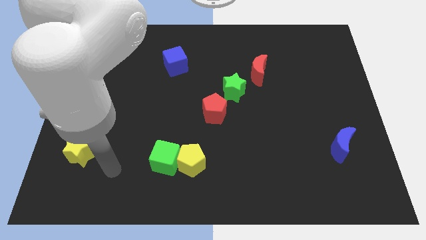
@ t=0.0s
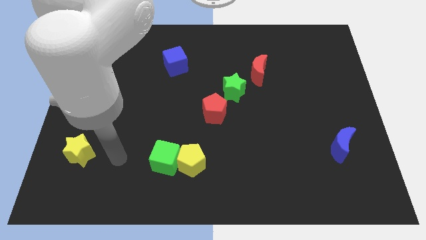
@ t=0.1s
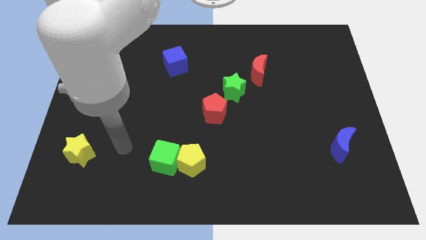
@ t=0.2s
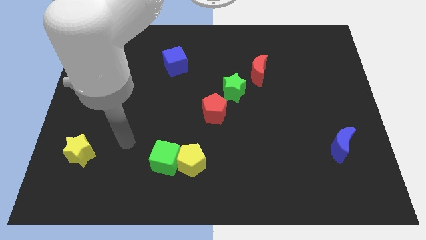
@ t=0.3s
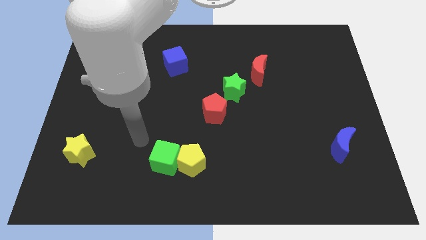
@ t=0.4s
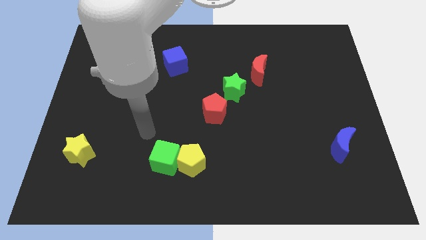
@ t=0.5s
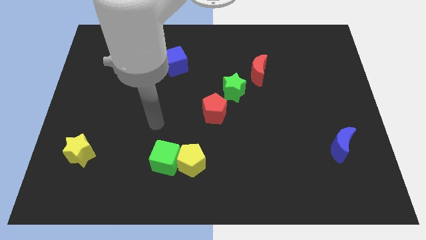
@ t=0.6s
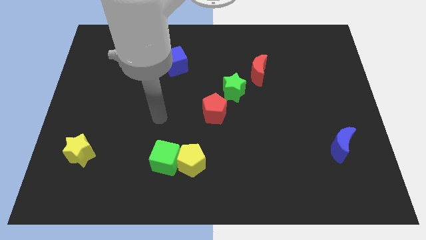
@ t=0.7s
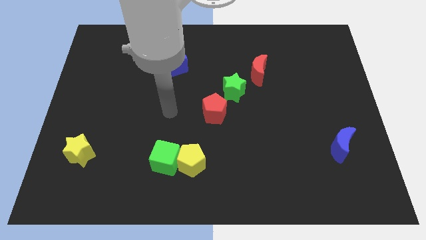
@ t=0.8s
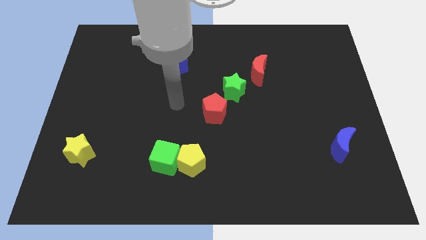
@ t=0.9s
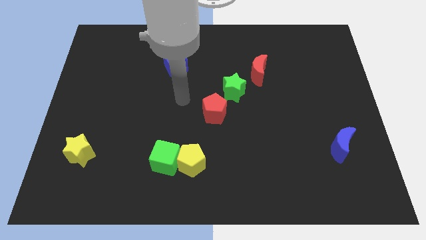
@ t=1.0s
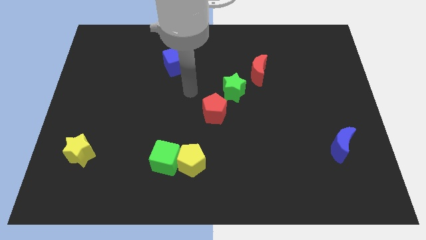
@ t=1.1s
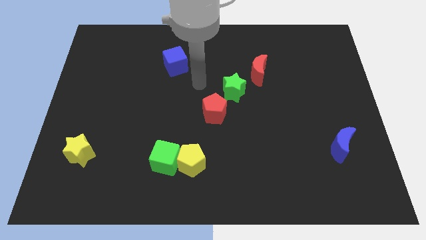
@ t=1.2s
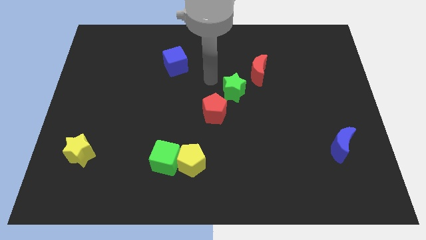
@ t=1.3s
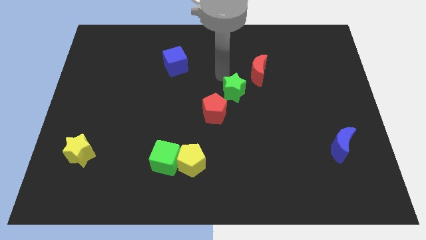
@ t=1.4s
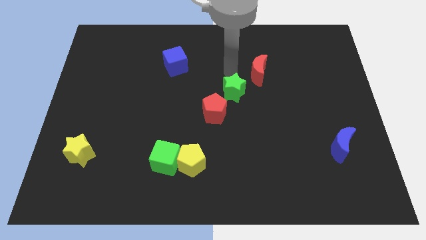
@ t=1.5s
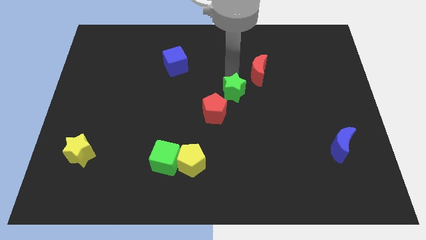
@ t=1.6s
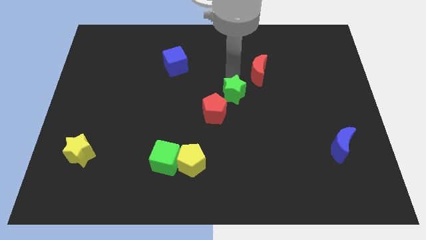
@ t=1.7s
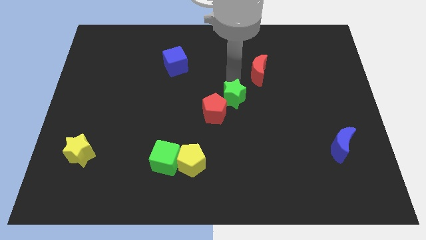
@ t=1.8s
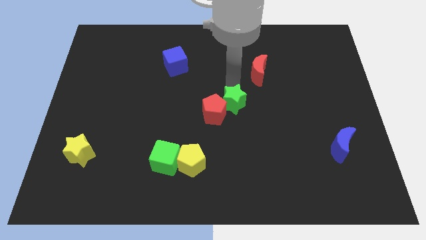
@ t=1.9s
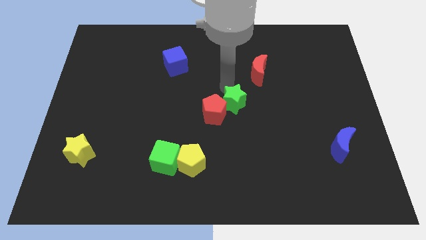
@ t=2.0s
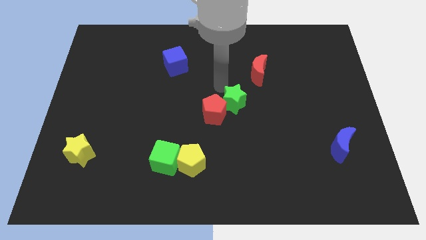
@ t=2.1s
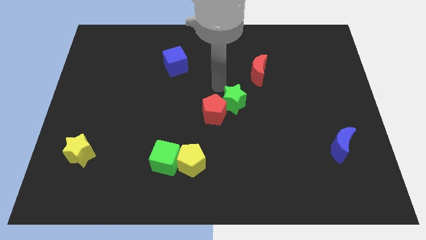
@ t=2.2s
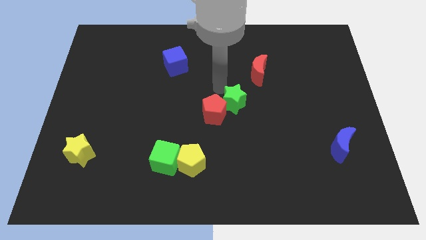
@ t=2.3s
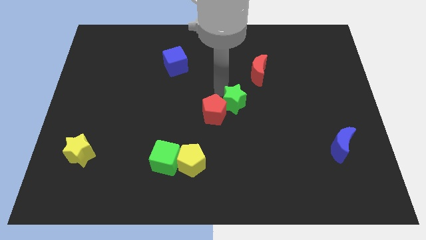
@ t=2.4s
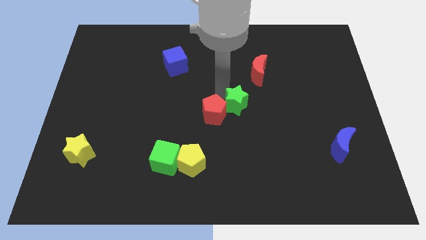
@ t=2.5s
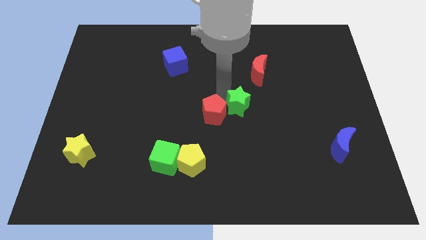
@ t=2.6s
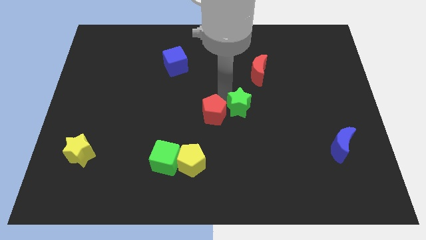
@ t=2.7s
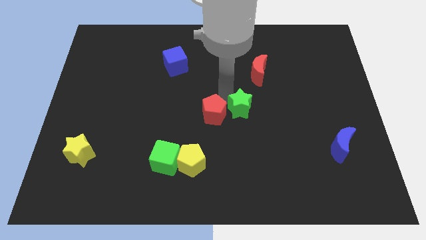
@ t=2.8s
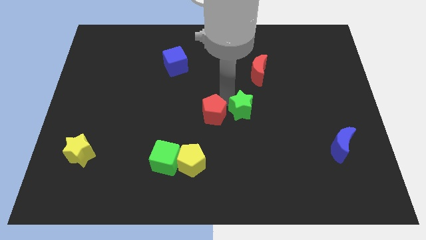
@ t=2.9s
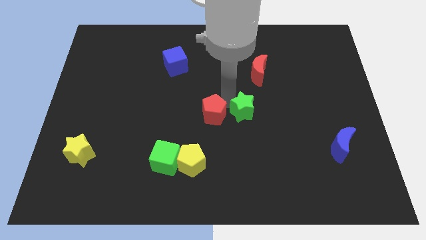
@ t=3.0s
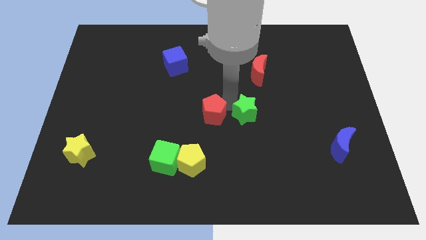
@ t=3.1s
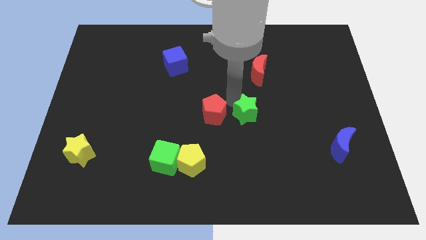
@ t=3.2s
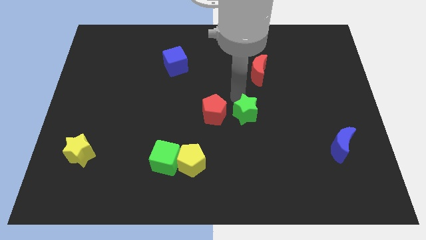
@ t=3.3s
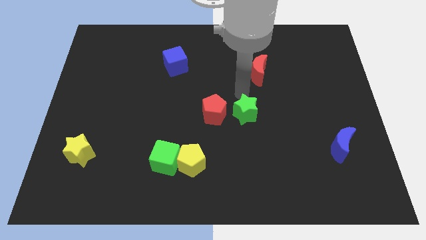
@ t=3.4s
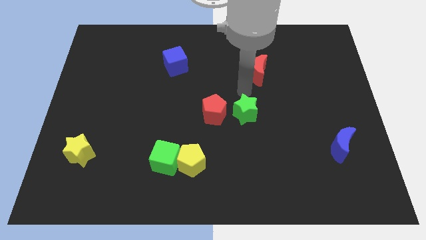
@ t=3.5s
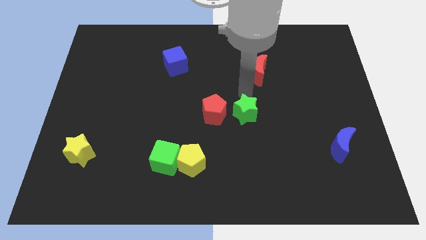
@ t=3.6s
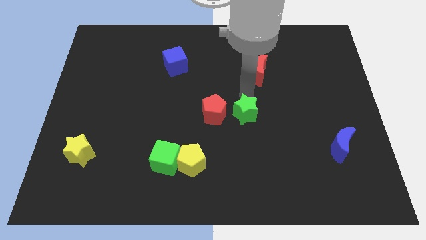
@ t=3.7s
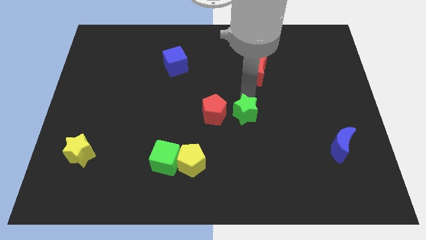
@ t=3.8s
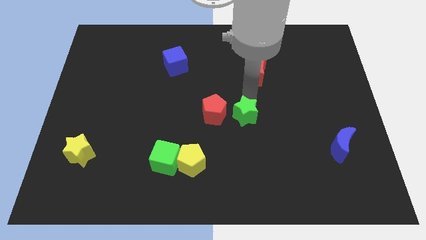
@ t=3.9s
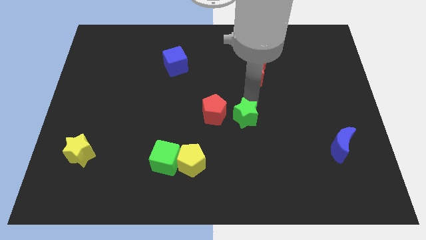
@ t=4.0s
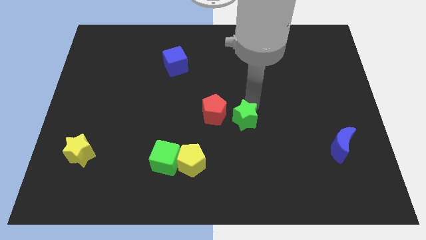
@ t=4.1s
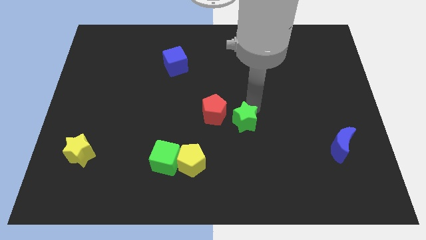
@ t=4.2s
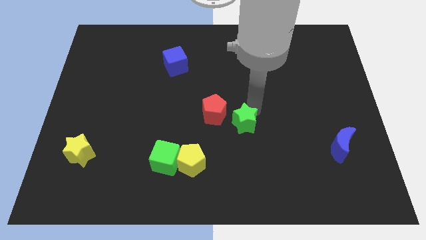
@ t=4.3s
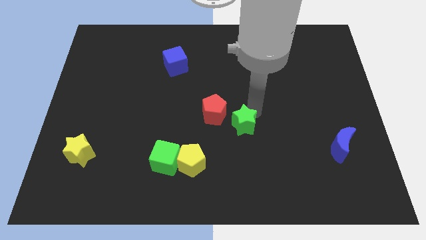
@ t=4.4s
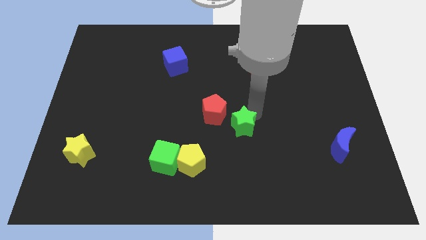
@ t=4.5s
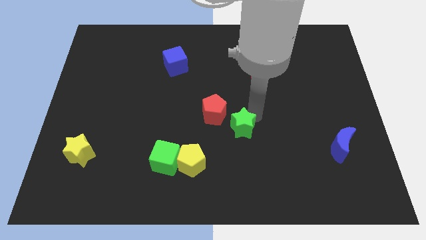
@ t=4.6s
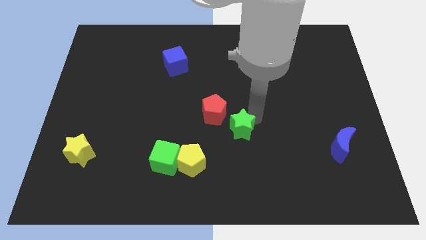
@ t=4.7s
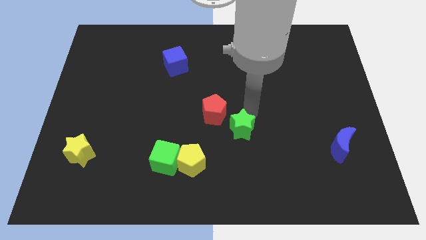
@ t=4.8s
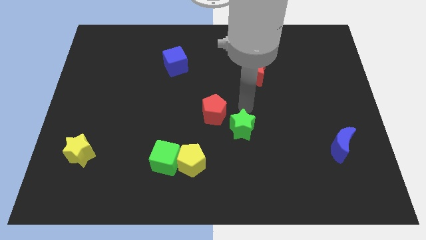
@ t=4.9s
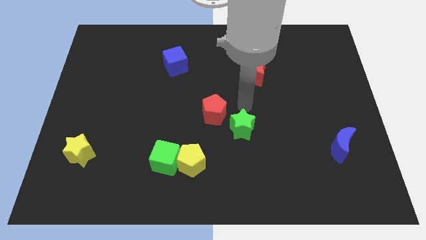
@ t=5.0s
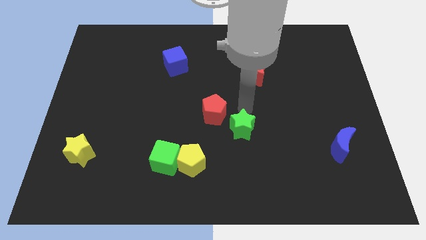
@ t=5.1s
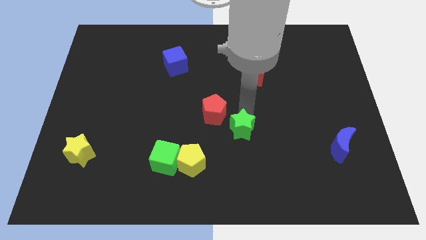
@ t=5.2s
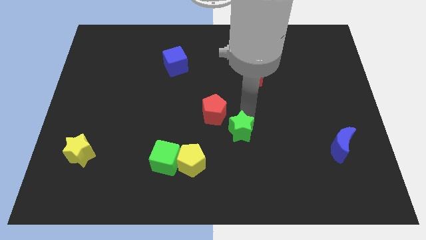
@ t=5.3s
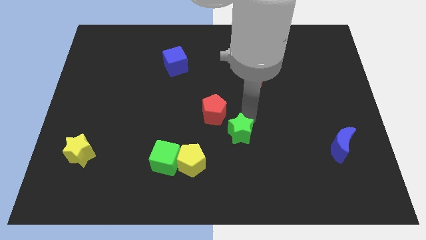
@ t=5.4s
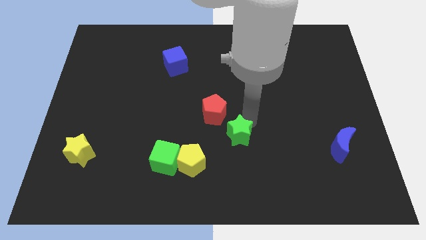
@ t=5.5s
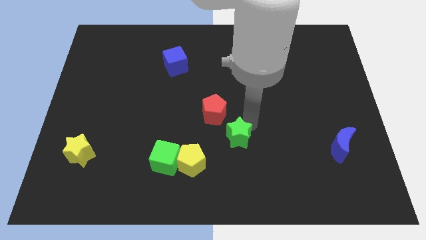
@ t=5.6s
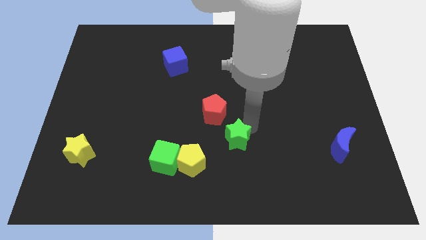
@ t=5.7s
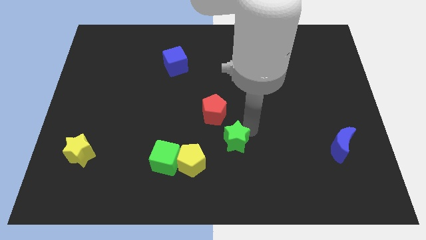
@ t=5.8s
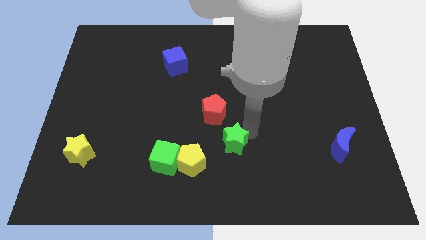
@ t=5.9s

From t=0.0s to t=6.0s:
slide the green star to the right of the yellow pentagon

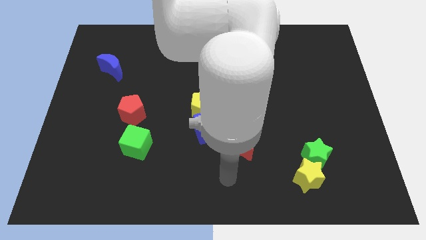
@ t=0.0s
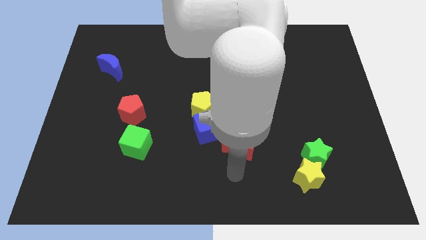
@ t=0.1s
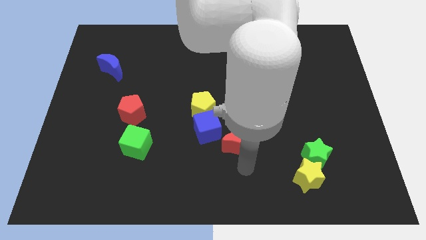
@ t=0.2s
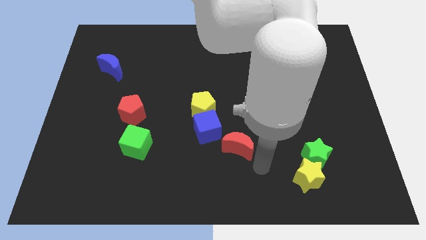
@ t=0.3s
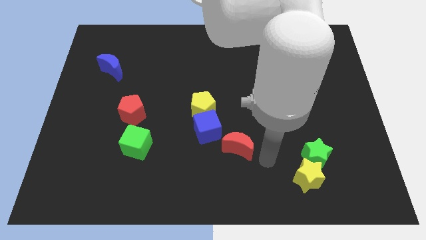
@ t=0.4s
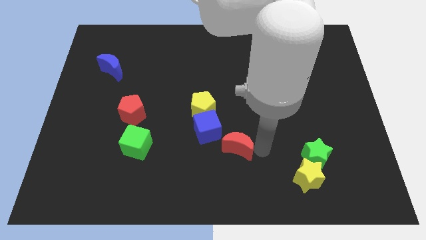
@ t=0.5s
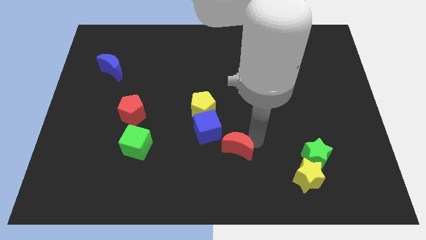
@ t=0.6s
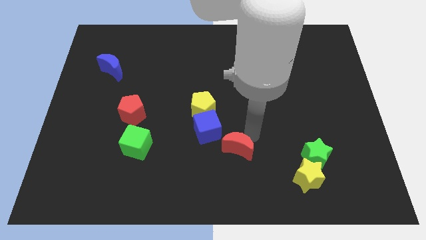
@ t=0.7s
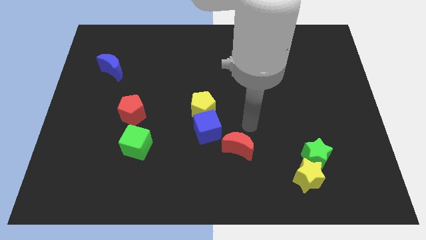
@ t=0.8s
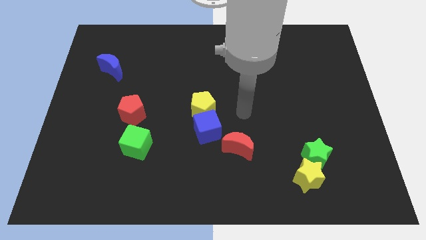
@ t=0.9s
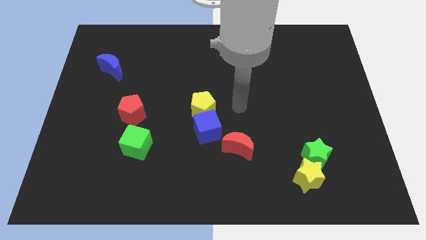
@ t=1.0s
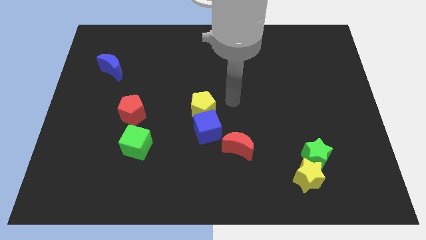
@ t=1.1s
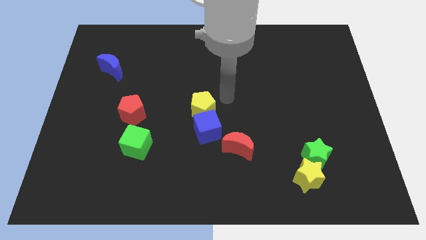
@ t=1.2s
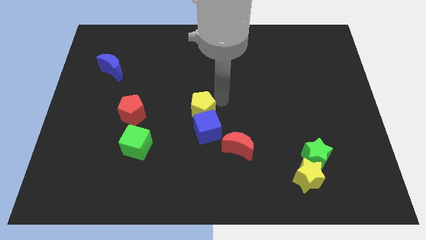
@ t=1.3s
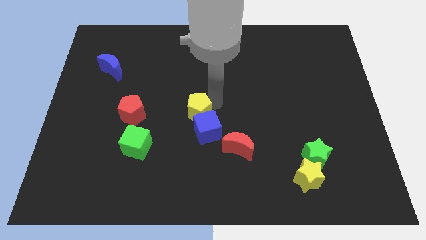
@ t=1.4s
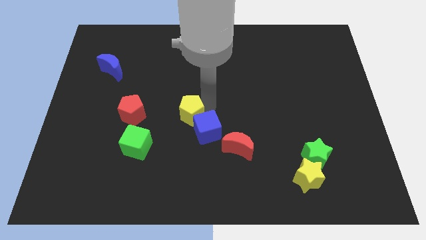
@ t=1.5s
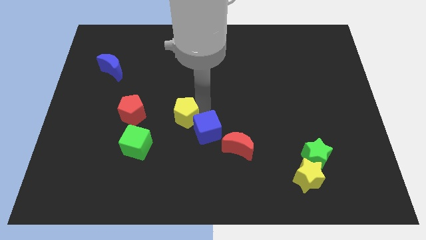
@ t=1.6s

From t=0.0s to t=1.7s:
move the yellow pentagon just left of the blue cube
